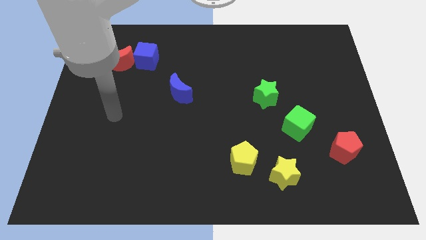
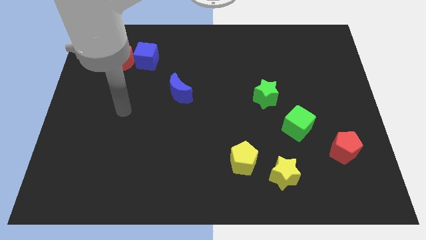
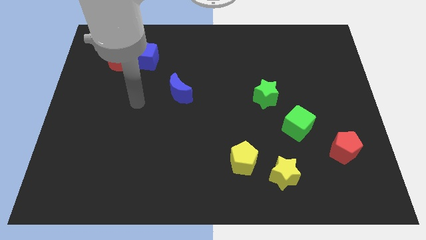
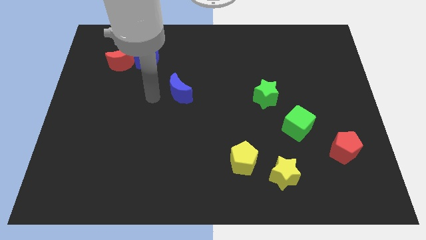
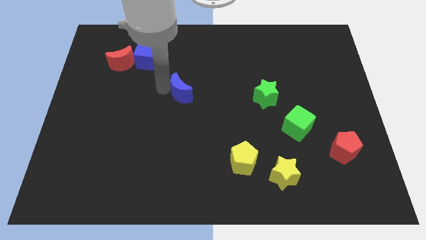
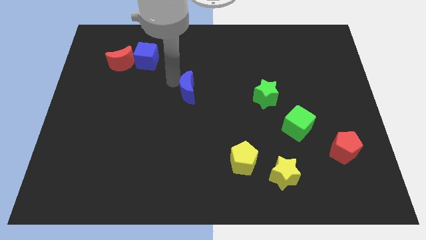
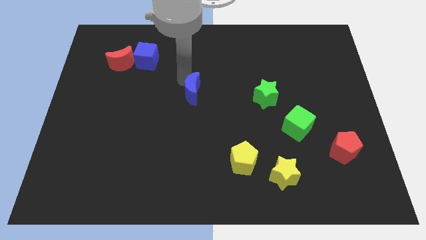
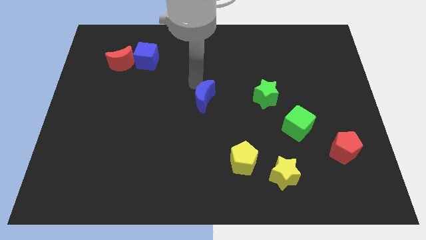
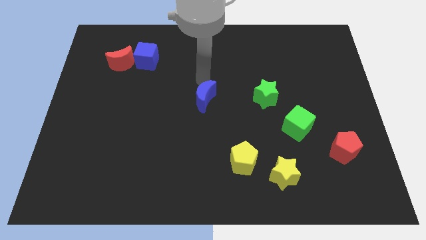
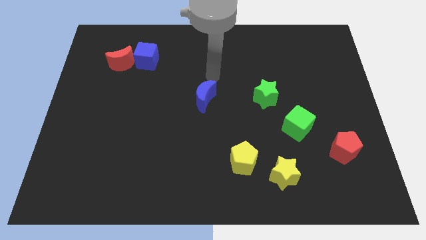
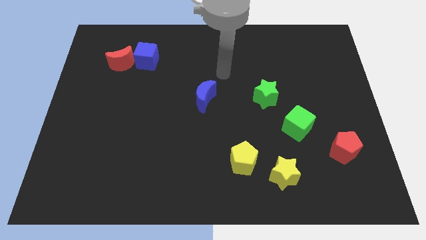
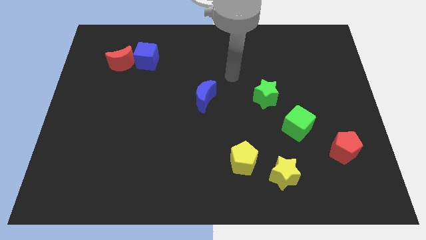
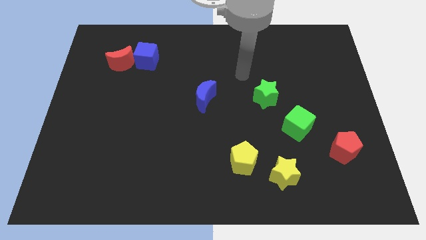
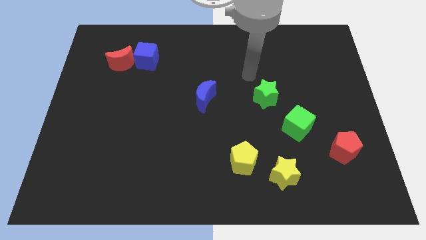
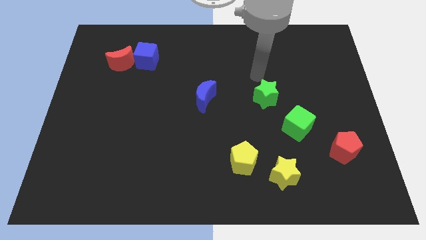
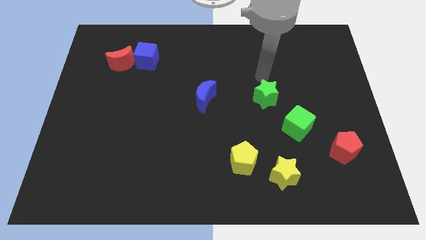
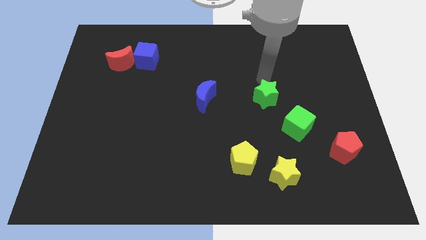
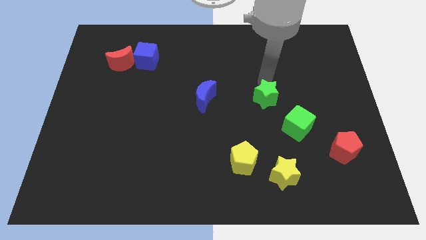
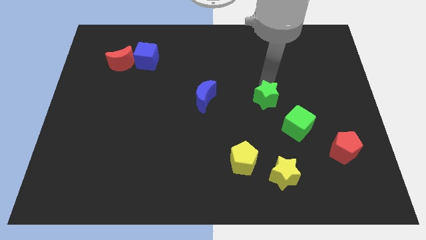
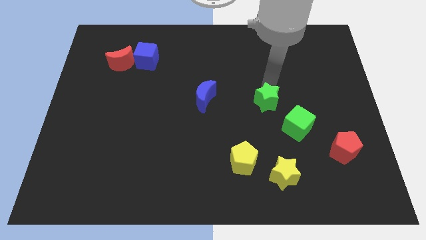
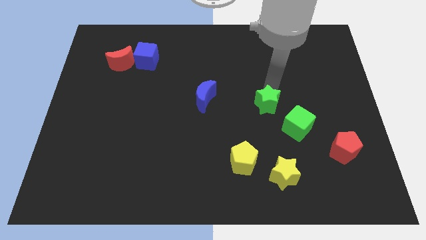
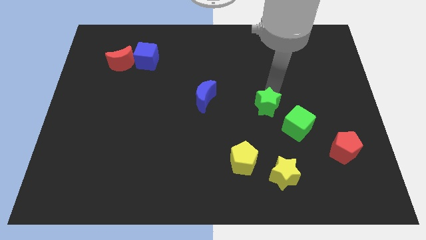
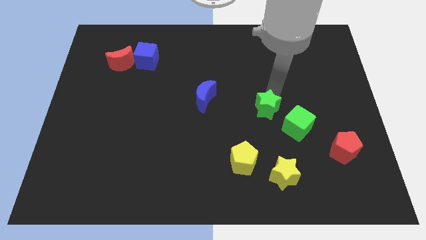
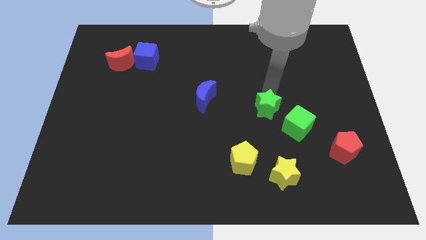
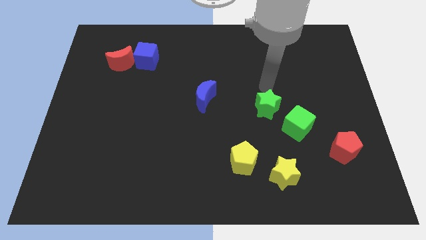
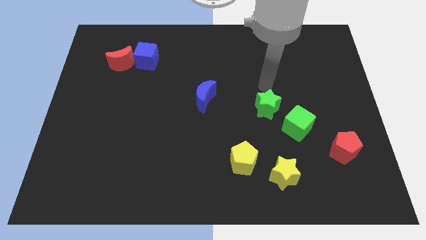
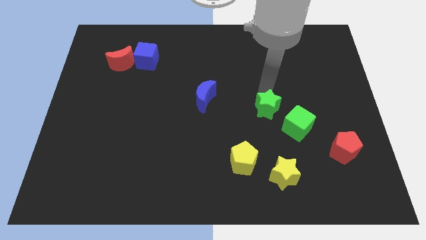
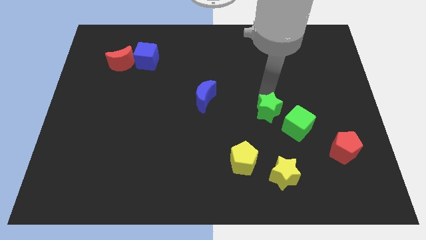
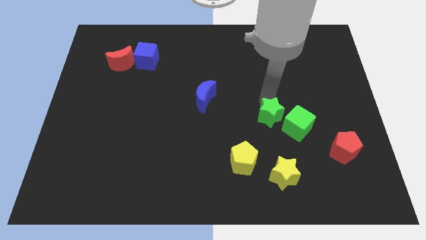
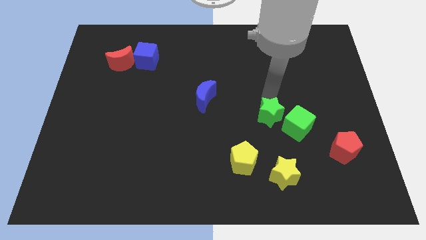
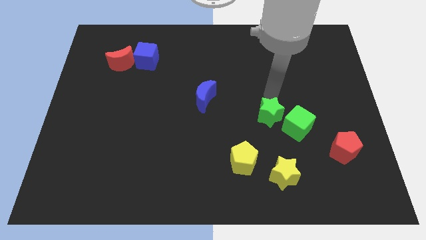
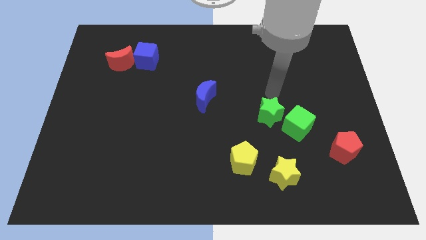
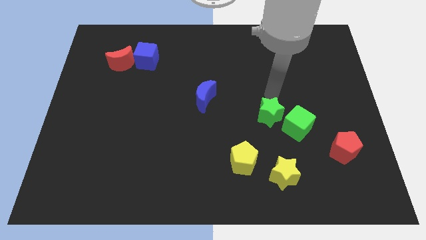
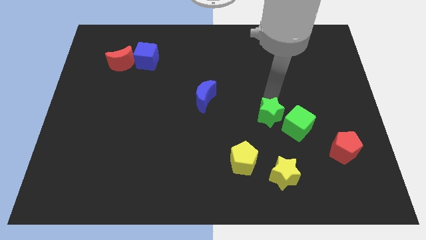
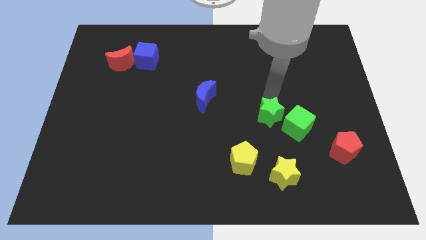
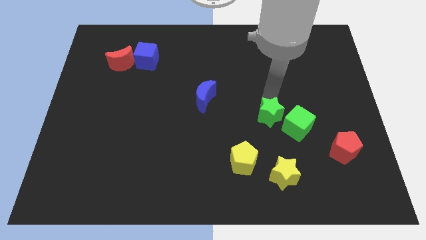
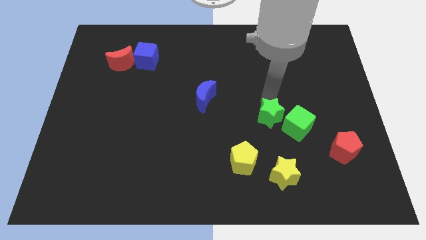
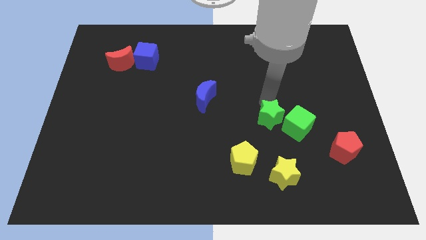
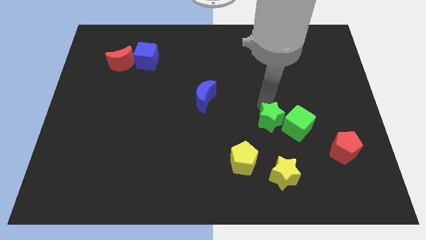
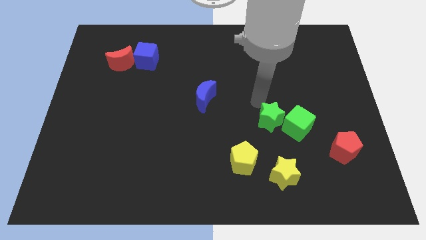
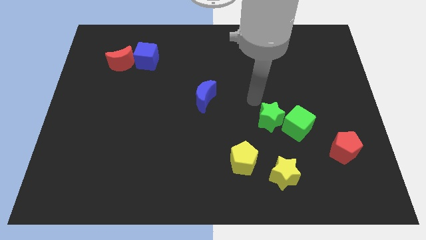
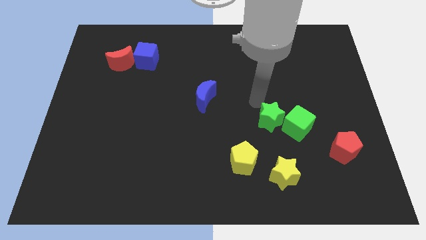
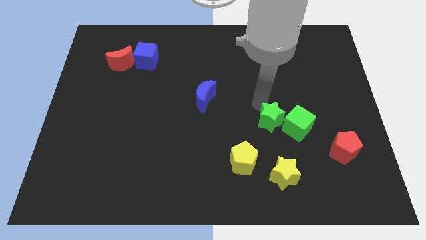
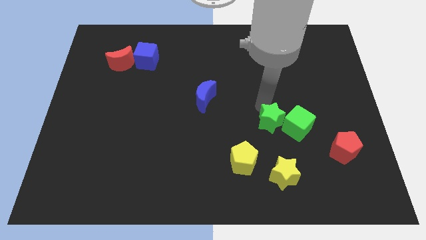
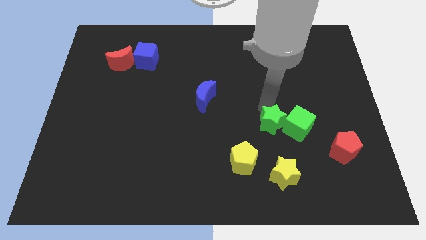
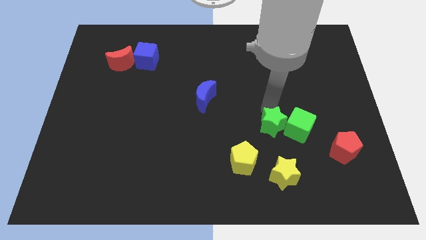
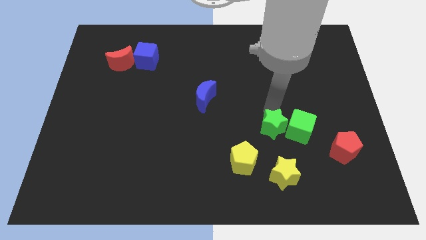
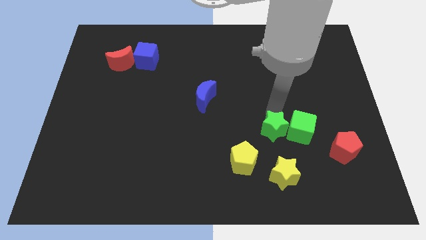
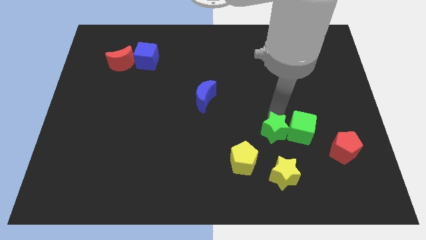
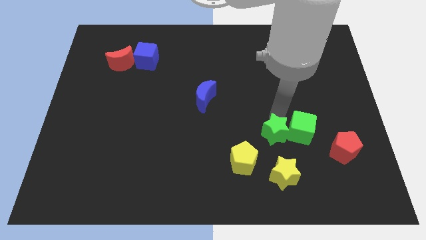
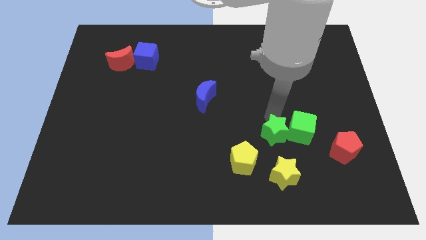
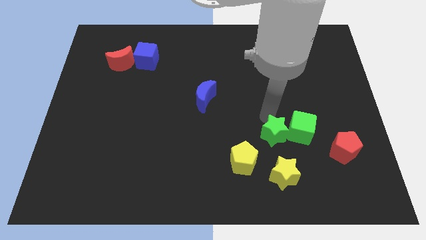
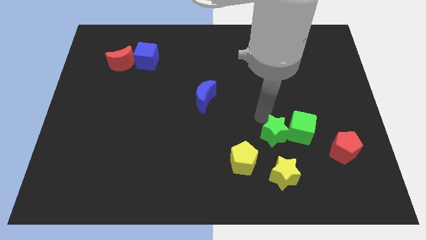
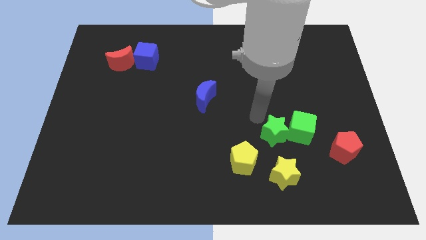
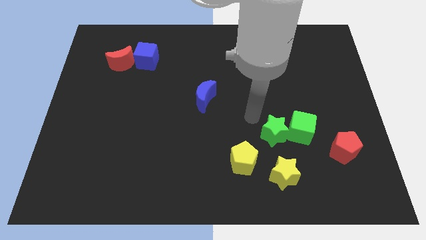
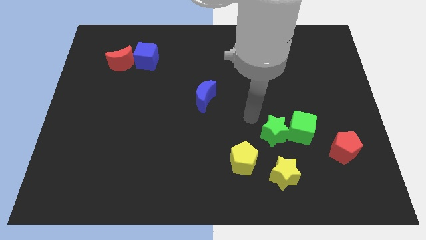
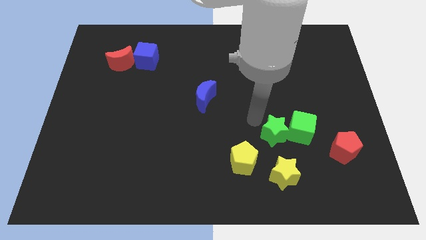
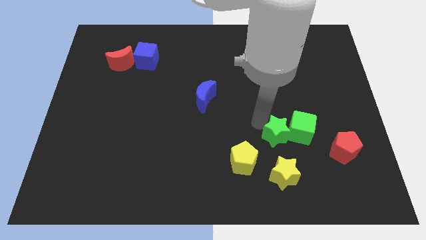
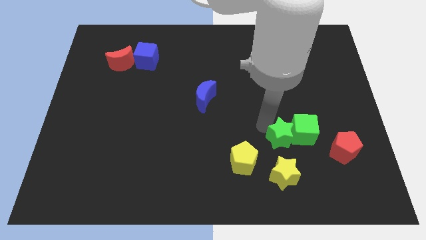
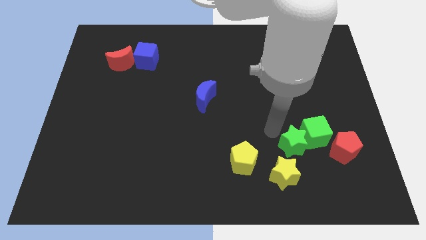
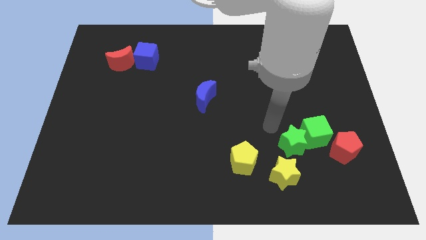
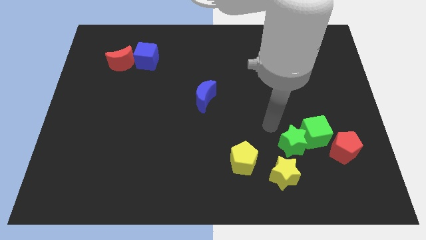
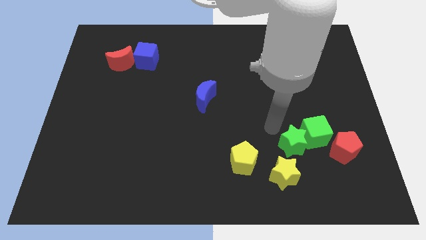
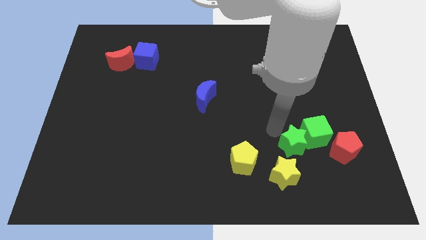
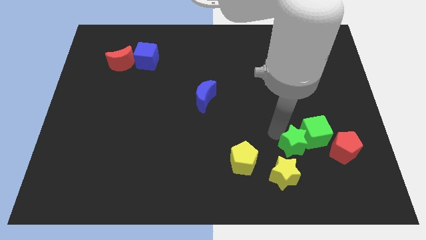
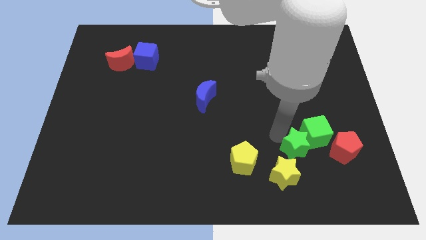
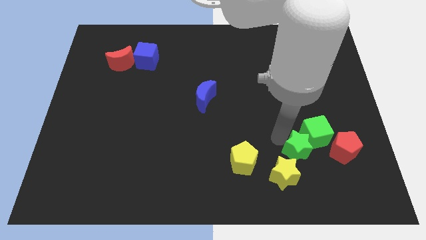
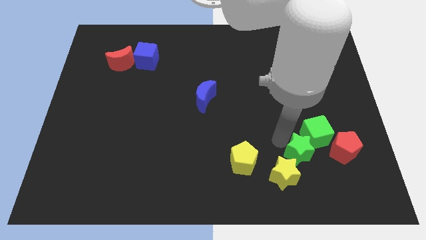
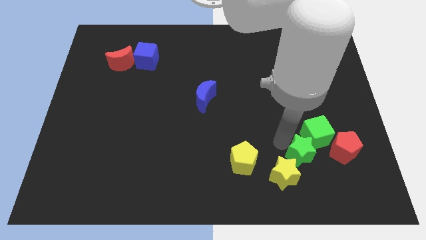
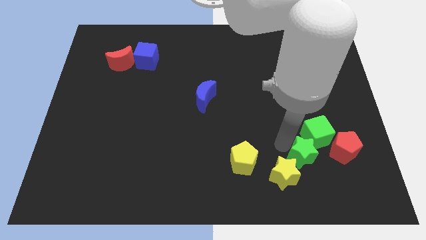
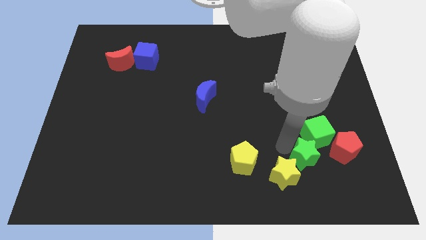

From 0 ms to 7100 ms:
slide the green star to the right side of the yellow star
